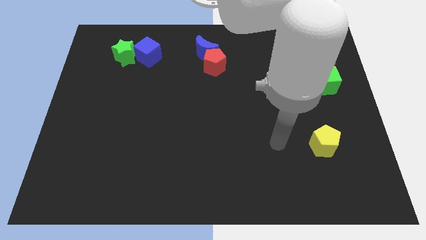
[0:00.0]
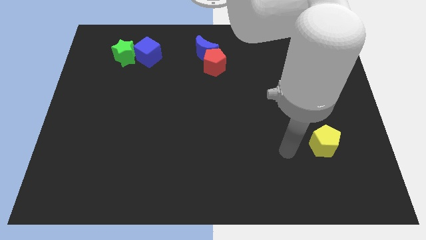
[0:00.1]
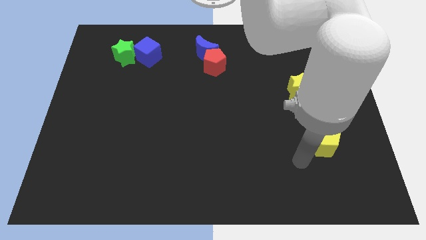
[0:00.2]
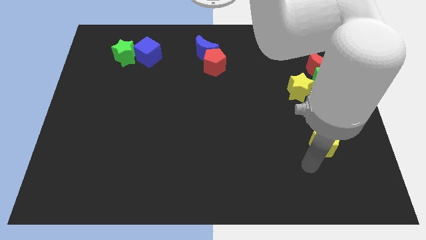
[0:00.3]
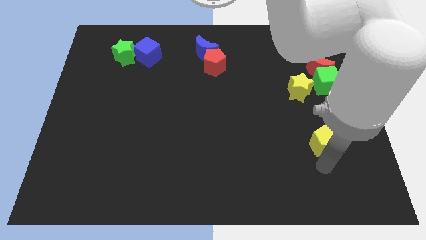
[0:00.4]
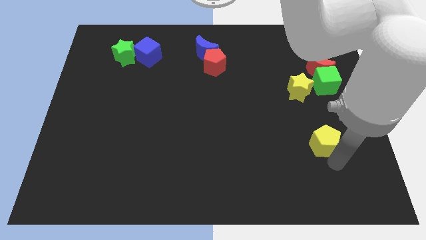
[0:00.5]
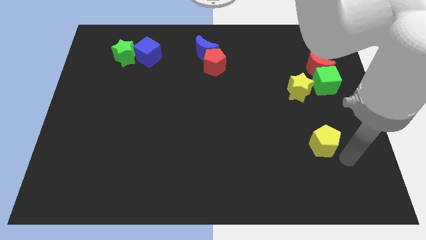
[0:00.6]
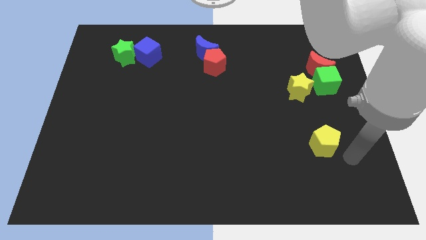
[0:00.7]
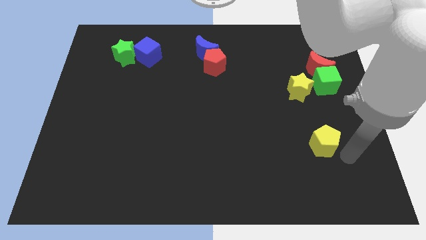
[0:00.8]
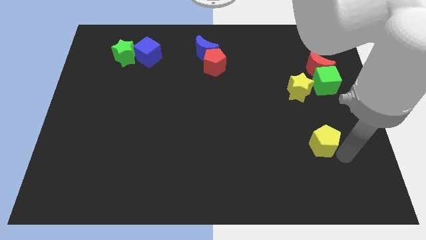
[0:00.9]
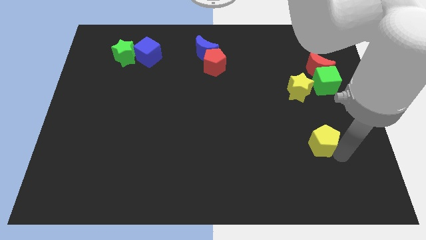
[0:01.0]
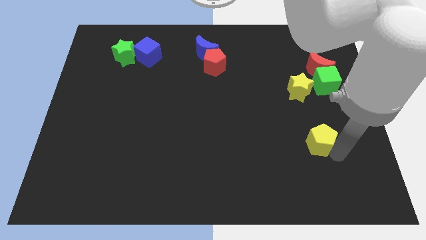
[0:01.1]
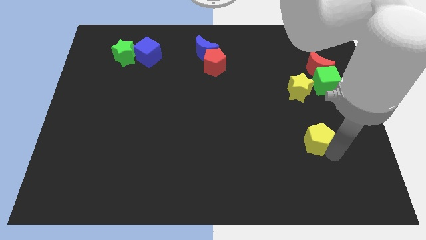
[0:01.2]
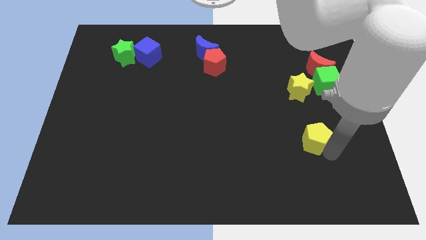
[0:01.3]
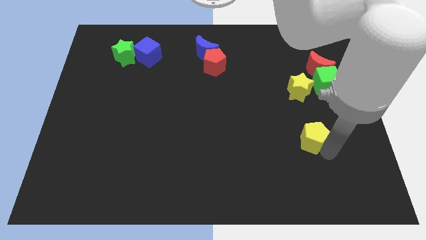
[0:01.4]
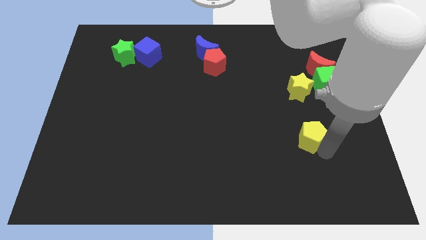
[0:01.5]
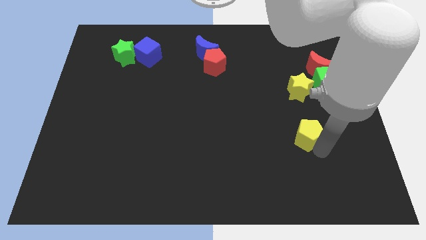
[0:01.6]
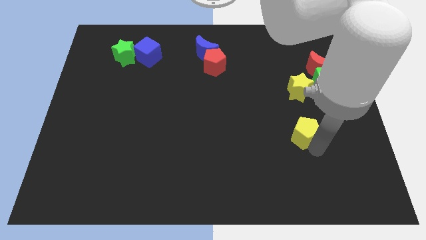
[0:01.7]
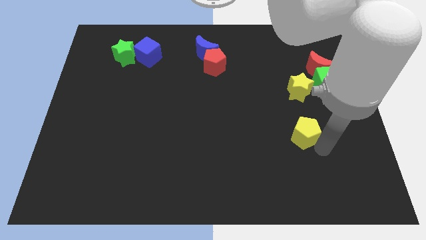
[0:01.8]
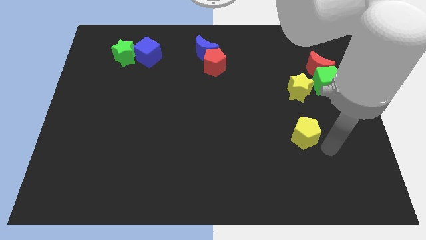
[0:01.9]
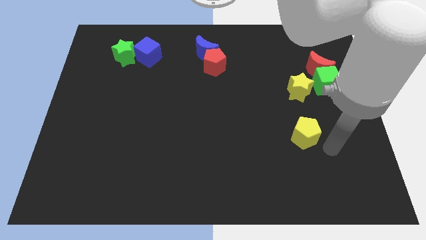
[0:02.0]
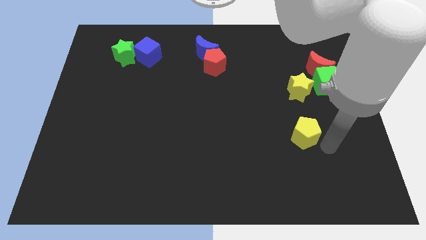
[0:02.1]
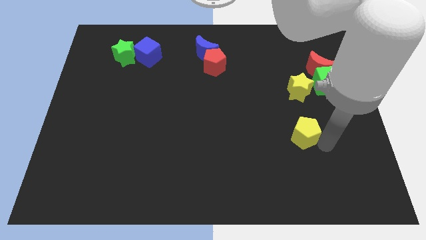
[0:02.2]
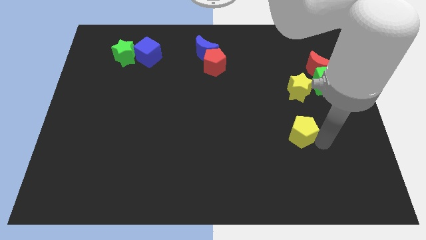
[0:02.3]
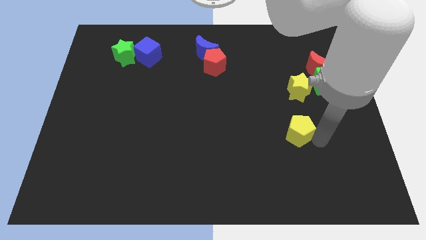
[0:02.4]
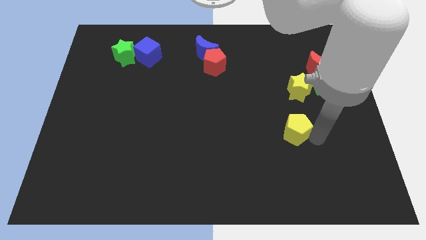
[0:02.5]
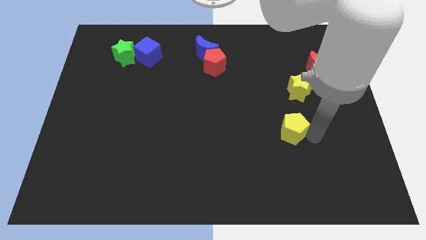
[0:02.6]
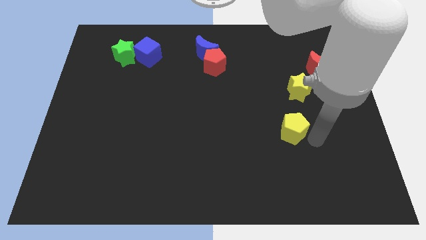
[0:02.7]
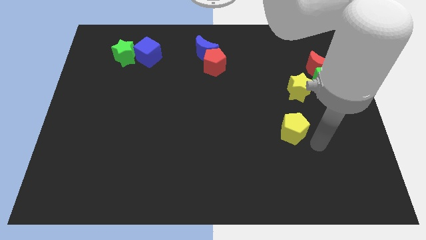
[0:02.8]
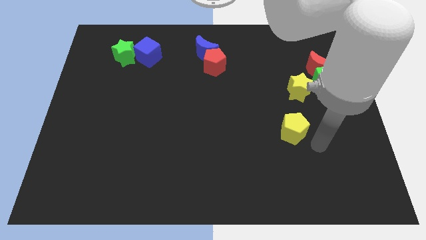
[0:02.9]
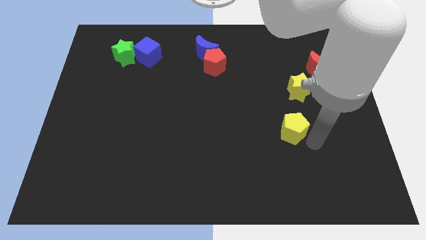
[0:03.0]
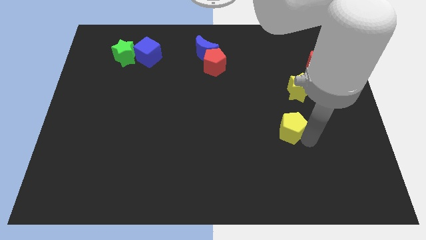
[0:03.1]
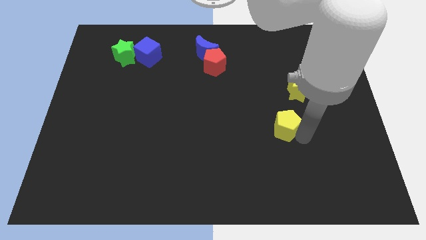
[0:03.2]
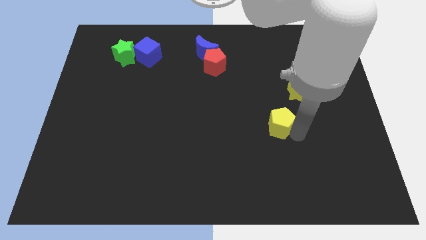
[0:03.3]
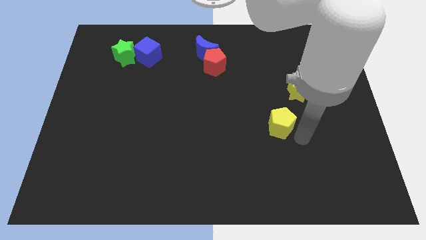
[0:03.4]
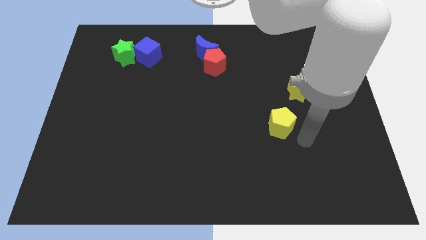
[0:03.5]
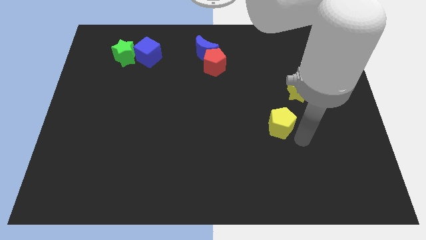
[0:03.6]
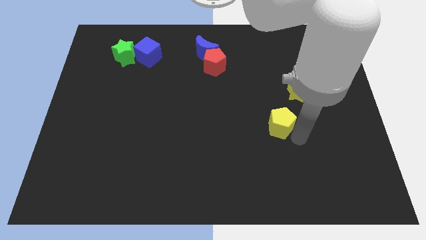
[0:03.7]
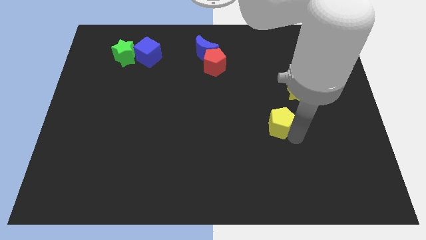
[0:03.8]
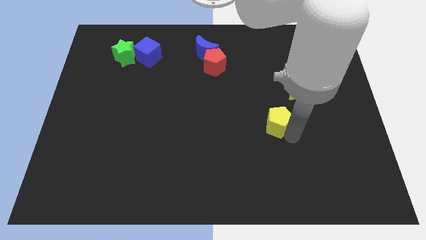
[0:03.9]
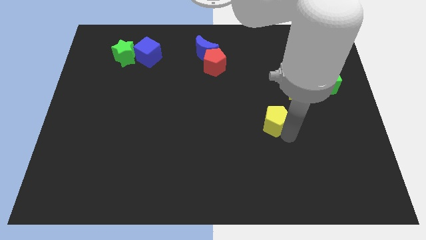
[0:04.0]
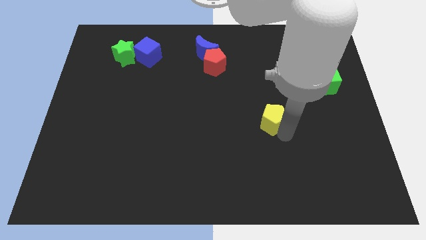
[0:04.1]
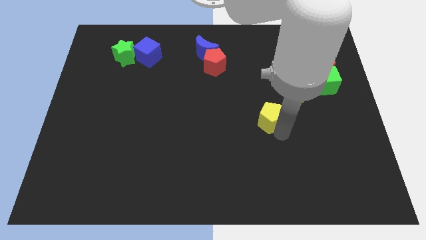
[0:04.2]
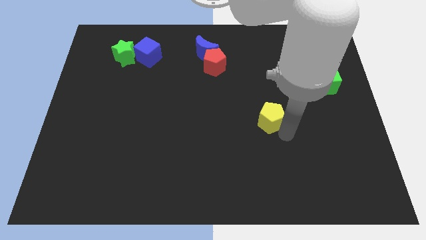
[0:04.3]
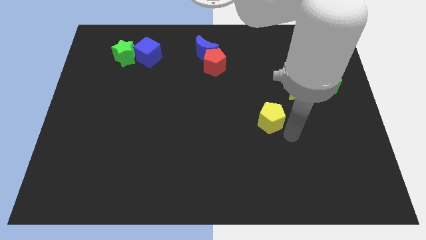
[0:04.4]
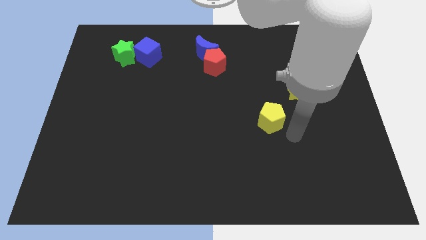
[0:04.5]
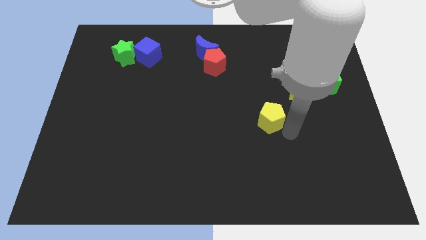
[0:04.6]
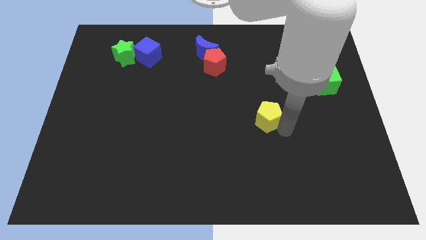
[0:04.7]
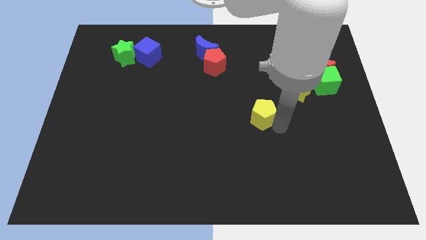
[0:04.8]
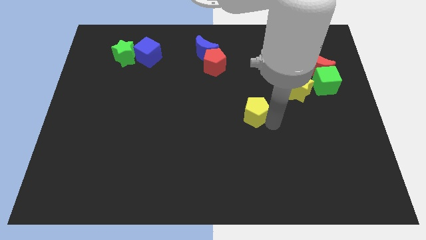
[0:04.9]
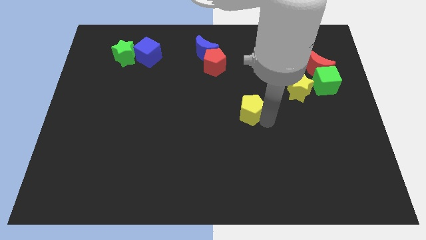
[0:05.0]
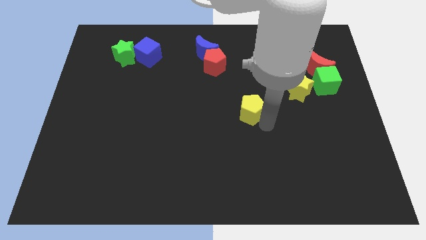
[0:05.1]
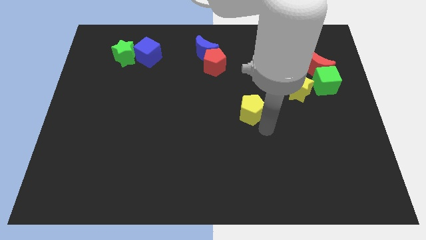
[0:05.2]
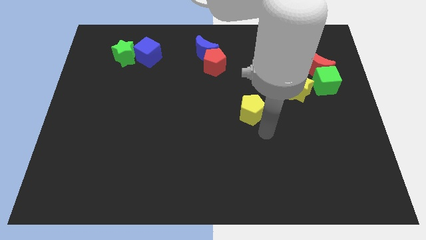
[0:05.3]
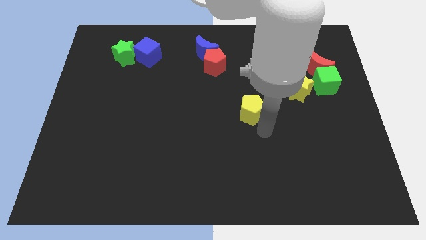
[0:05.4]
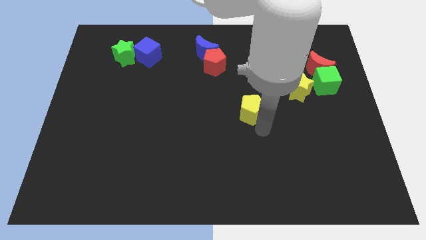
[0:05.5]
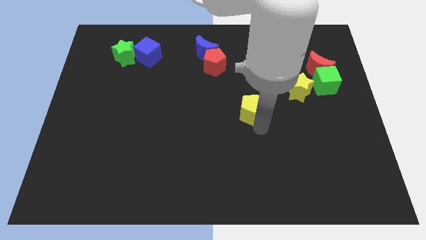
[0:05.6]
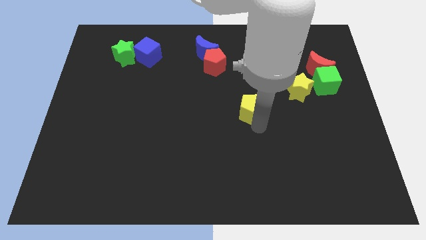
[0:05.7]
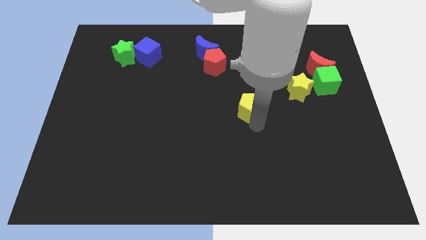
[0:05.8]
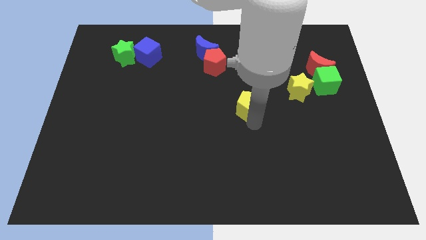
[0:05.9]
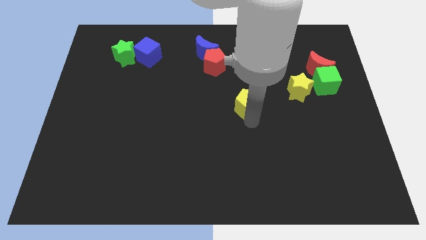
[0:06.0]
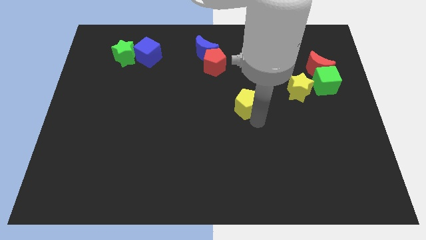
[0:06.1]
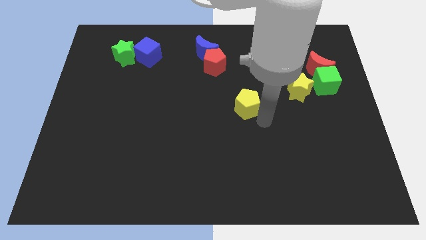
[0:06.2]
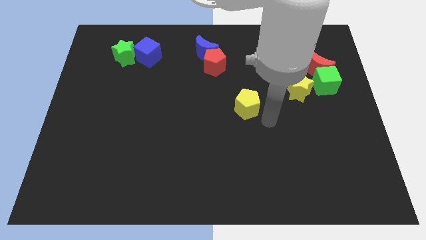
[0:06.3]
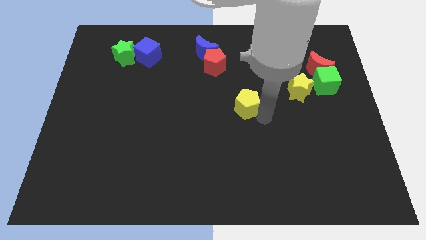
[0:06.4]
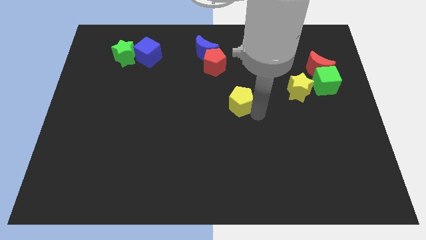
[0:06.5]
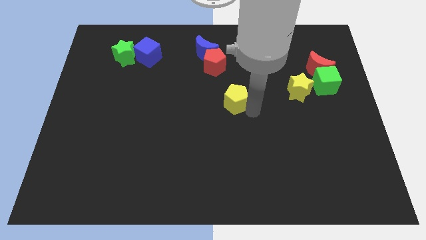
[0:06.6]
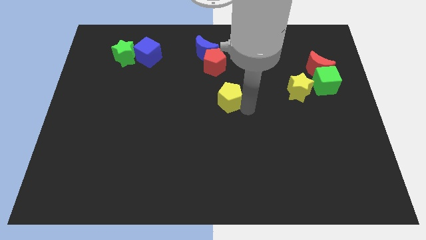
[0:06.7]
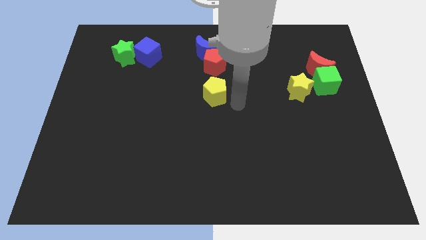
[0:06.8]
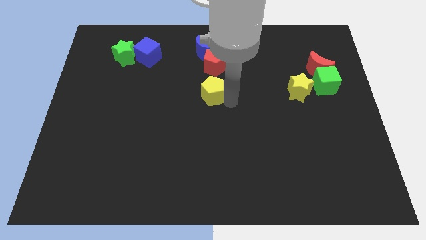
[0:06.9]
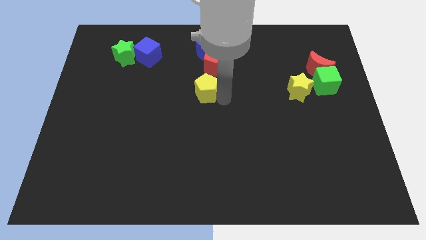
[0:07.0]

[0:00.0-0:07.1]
move the yellow pentagon to the bottom left of the red pentagon

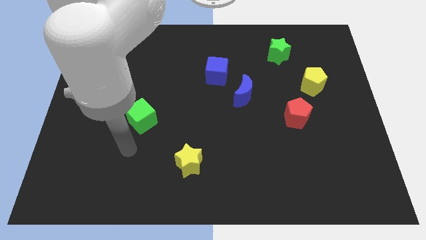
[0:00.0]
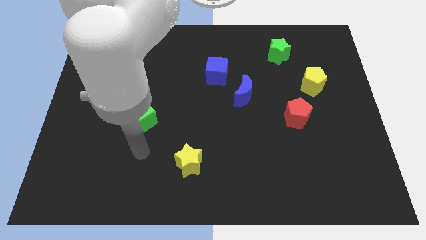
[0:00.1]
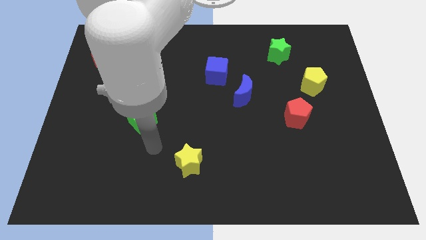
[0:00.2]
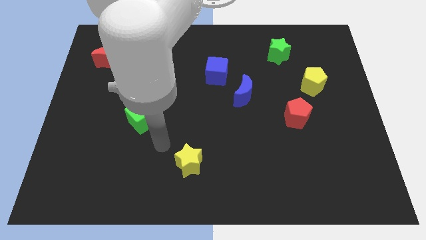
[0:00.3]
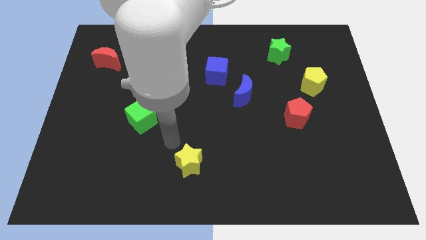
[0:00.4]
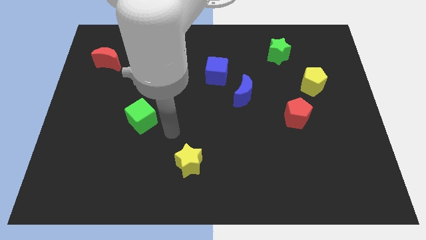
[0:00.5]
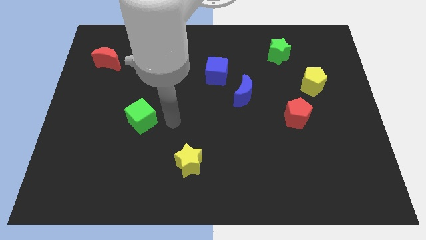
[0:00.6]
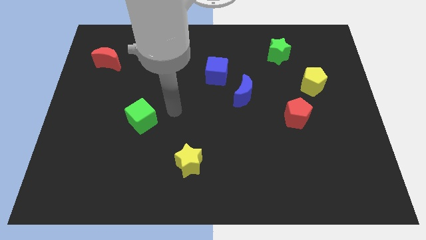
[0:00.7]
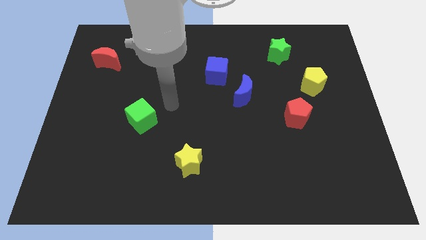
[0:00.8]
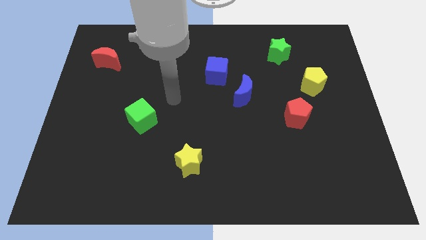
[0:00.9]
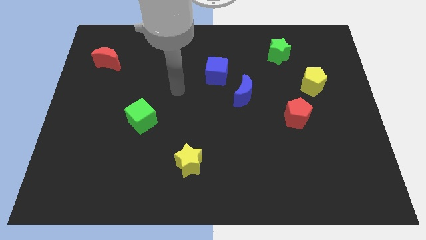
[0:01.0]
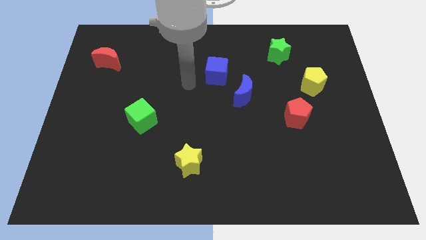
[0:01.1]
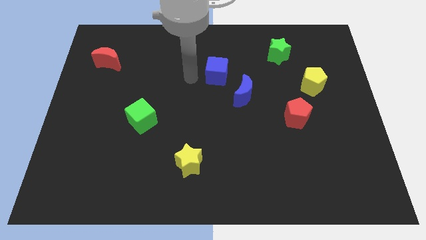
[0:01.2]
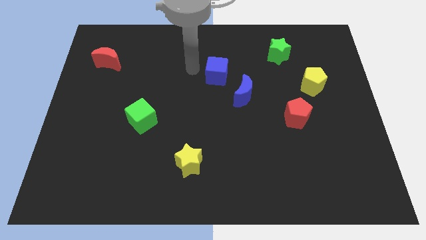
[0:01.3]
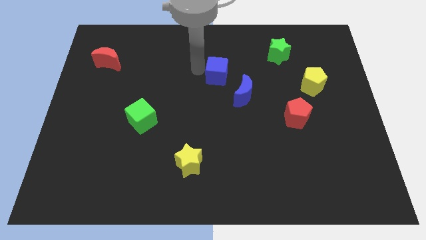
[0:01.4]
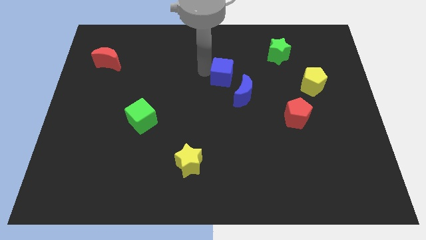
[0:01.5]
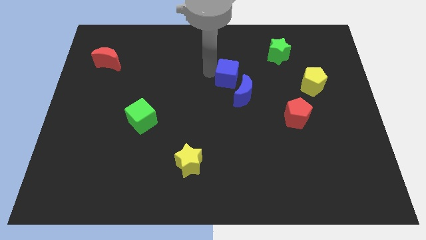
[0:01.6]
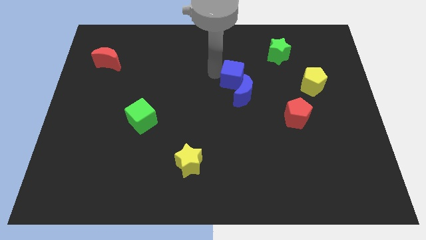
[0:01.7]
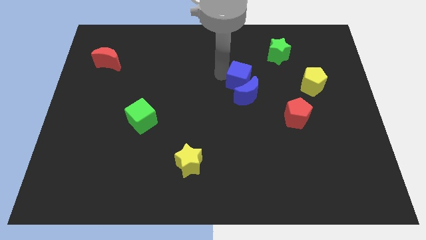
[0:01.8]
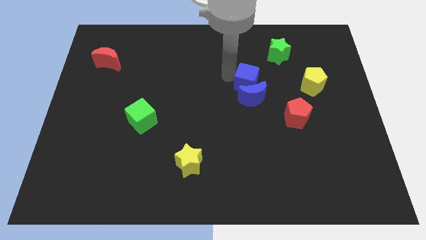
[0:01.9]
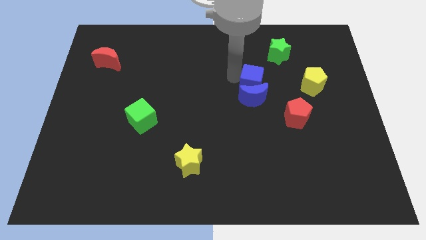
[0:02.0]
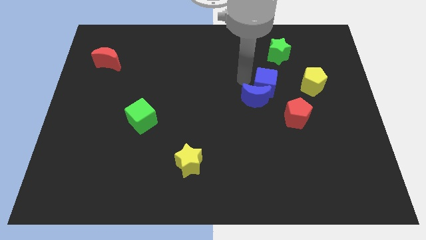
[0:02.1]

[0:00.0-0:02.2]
push the blue cube right of the blue moon
